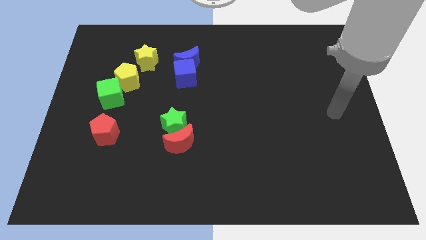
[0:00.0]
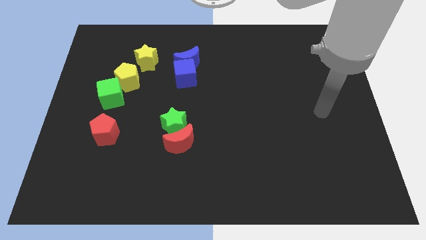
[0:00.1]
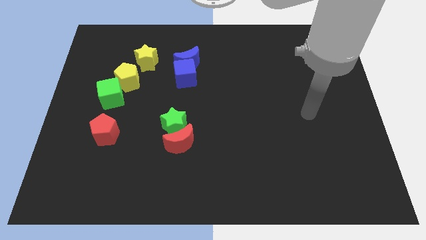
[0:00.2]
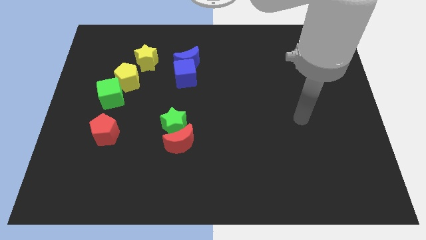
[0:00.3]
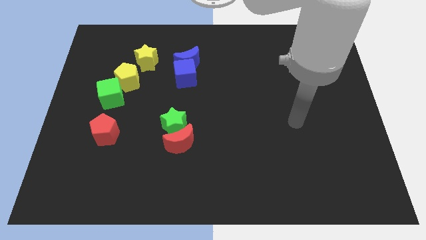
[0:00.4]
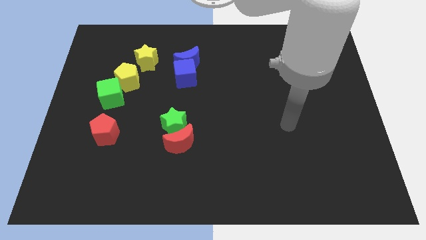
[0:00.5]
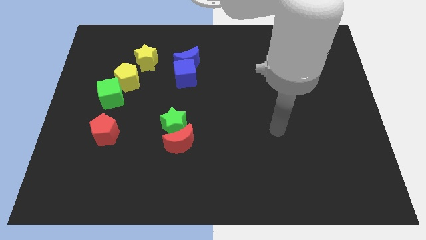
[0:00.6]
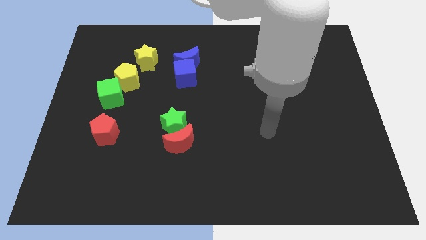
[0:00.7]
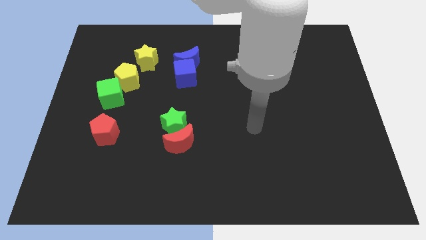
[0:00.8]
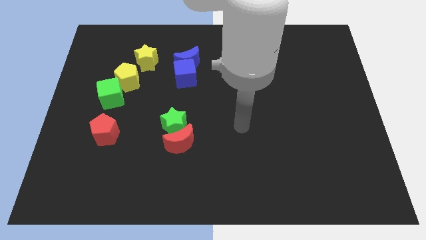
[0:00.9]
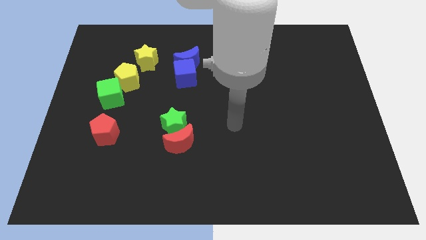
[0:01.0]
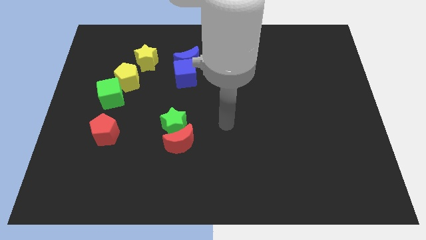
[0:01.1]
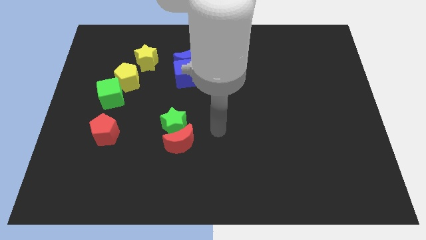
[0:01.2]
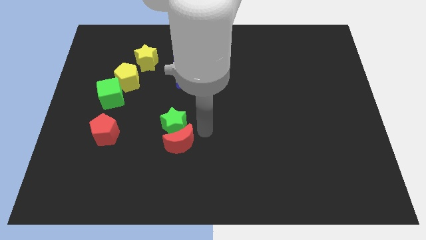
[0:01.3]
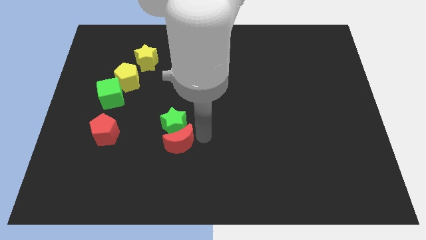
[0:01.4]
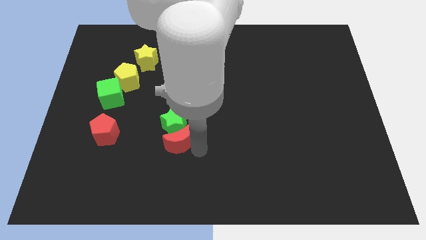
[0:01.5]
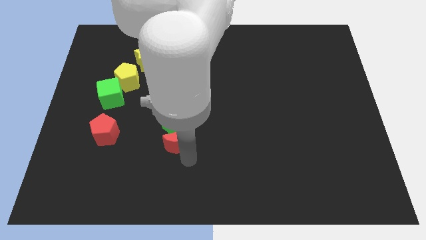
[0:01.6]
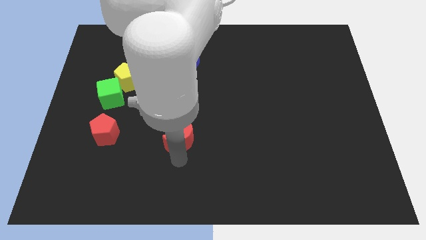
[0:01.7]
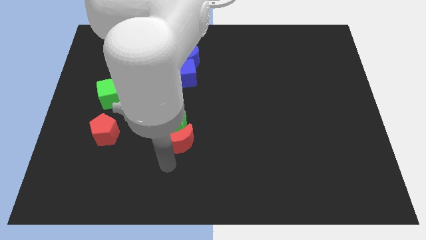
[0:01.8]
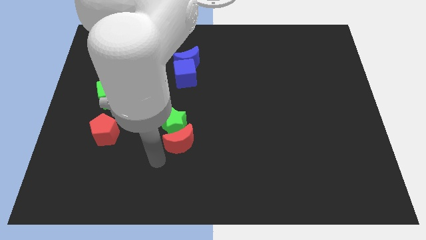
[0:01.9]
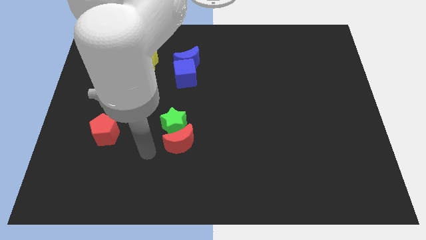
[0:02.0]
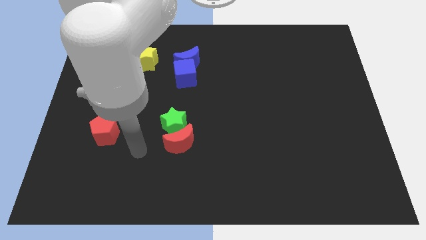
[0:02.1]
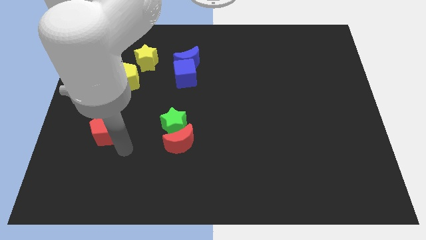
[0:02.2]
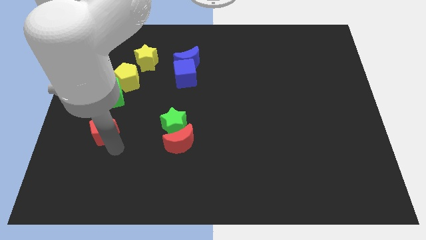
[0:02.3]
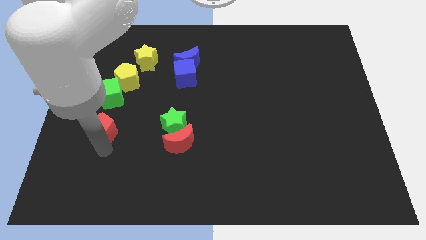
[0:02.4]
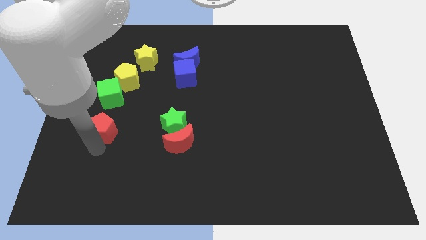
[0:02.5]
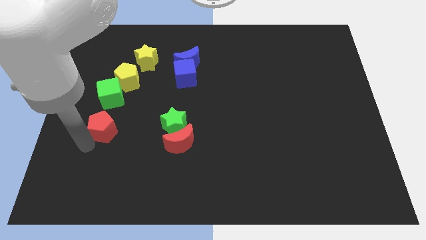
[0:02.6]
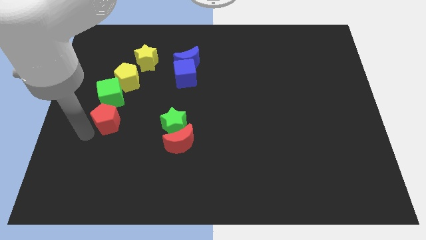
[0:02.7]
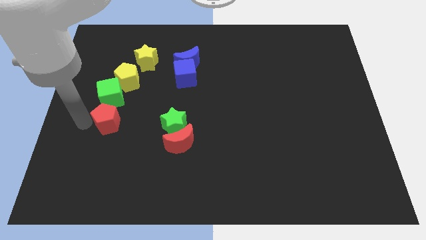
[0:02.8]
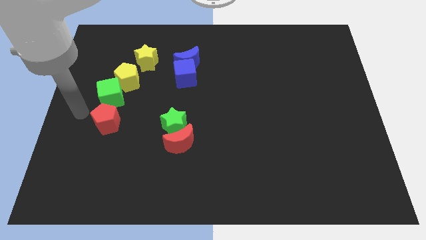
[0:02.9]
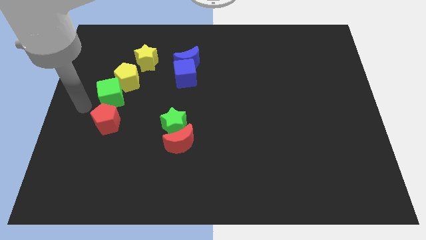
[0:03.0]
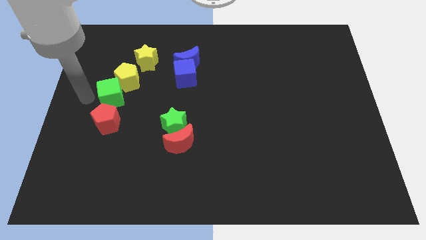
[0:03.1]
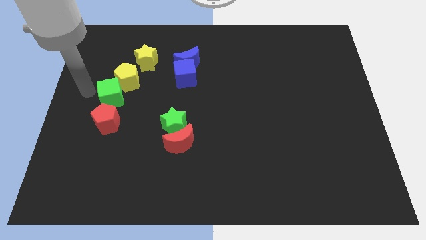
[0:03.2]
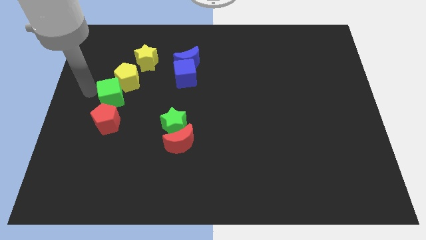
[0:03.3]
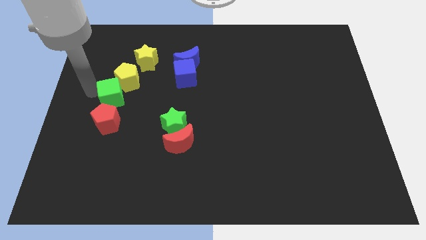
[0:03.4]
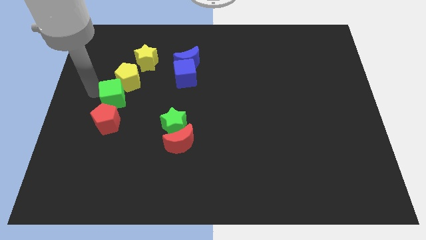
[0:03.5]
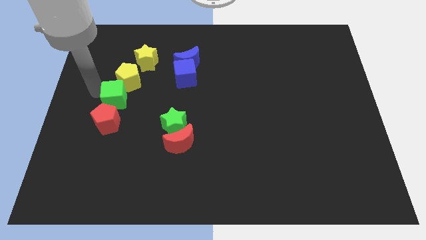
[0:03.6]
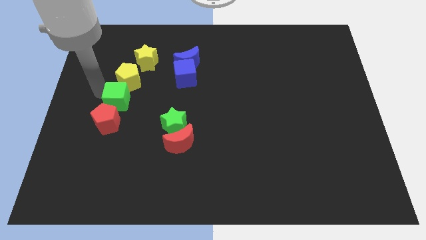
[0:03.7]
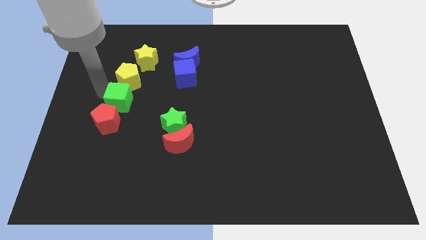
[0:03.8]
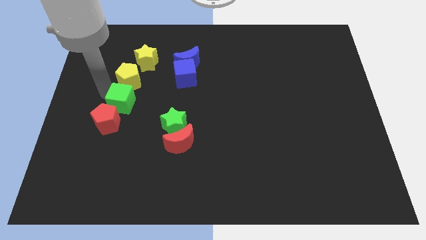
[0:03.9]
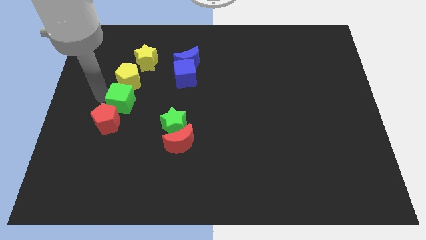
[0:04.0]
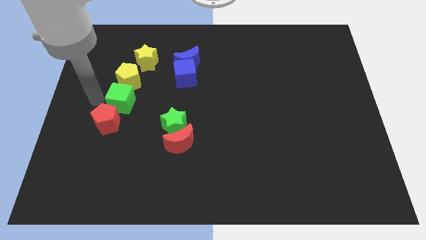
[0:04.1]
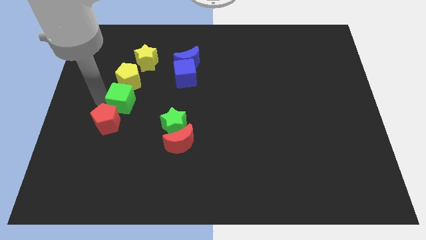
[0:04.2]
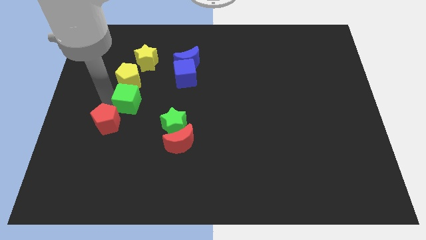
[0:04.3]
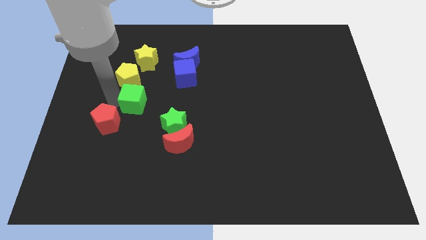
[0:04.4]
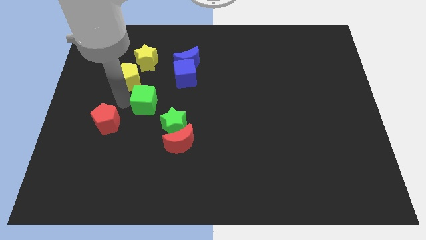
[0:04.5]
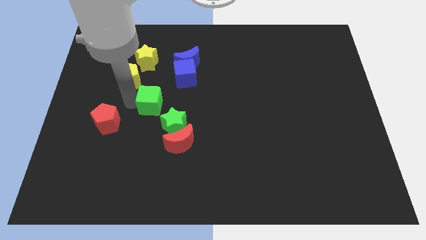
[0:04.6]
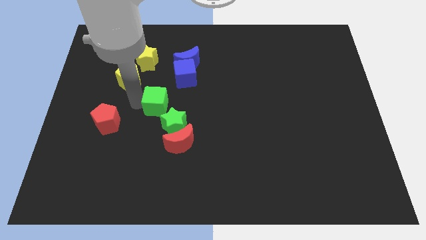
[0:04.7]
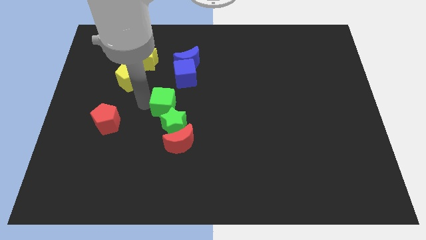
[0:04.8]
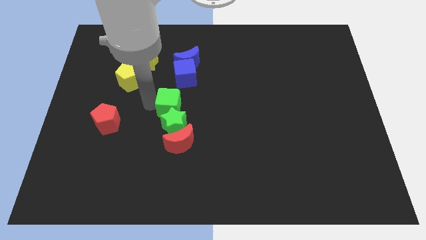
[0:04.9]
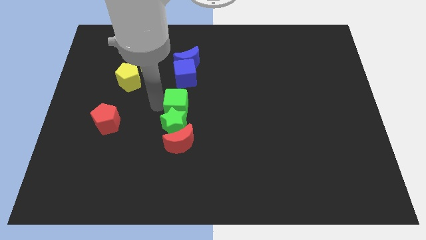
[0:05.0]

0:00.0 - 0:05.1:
slide the green cube to the top right of the green star

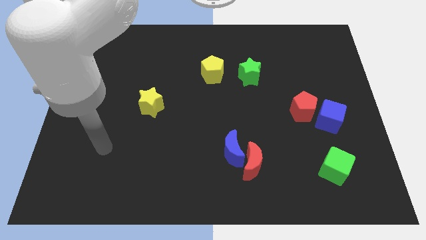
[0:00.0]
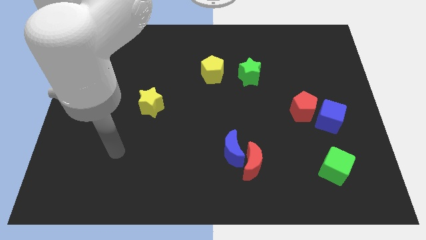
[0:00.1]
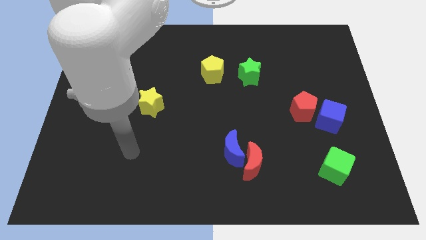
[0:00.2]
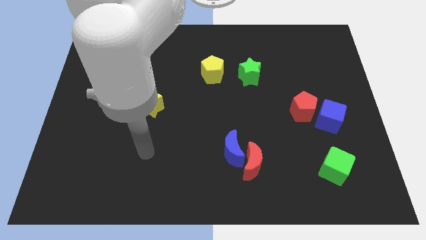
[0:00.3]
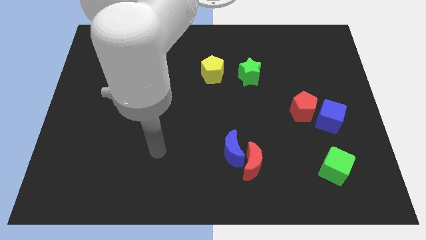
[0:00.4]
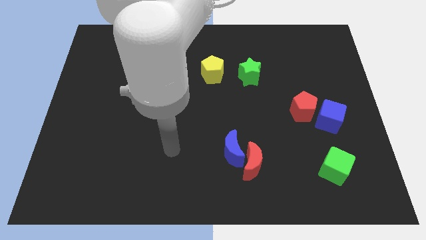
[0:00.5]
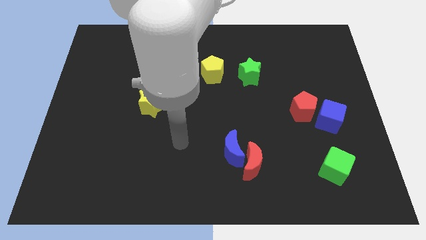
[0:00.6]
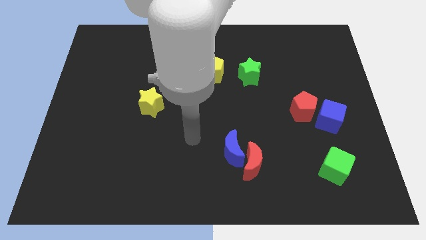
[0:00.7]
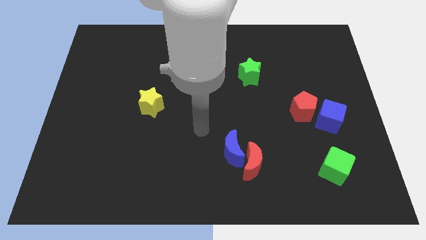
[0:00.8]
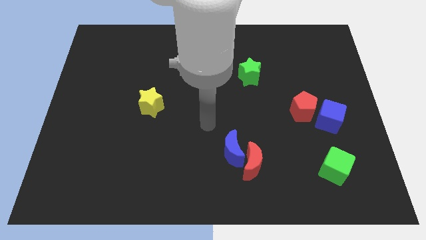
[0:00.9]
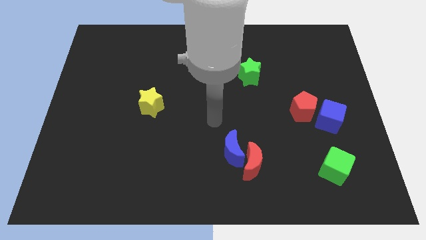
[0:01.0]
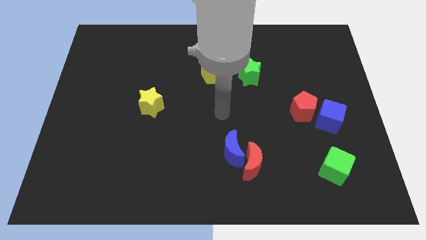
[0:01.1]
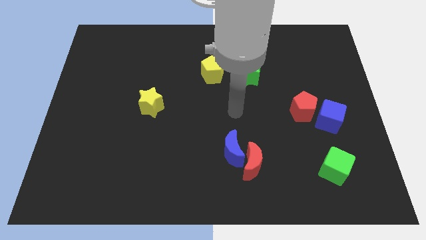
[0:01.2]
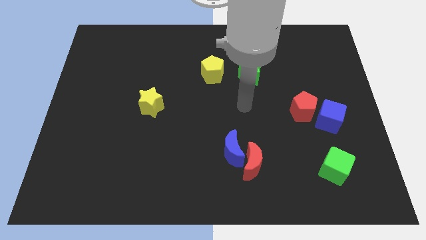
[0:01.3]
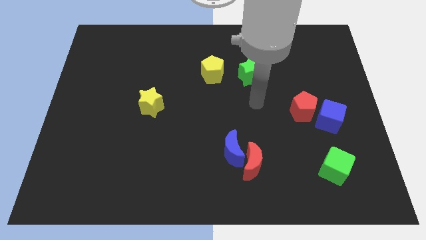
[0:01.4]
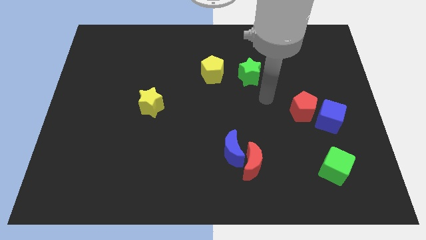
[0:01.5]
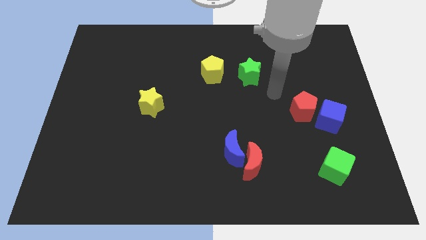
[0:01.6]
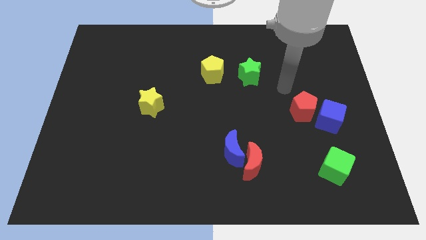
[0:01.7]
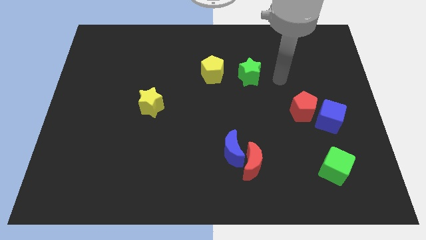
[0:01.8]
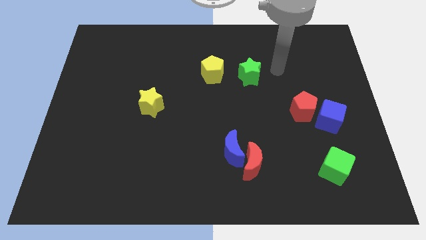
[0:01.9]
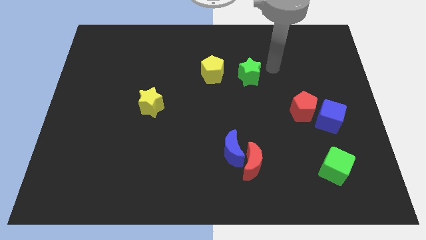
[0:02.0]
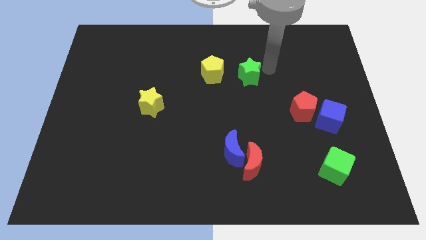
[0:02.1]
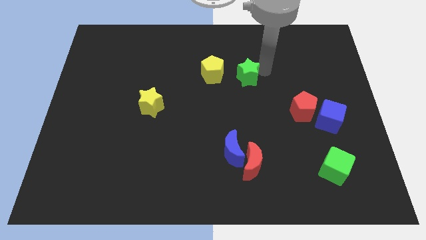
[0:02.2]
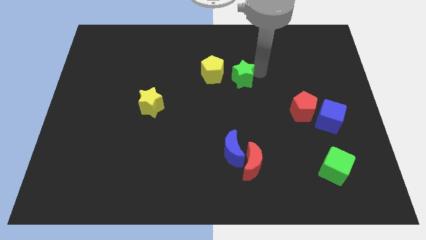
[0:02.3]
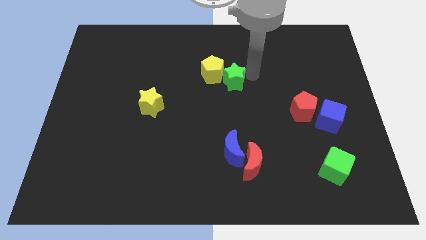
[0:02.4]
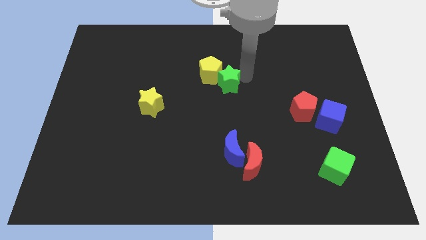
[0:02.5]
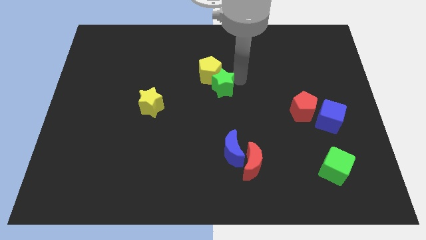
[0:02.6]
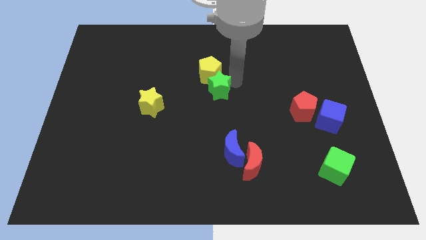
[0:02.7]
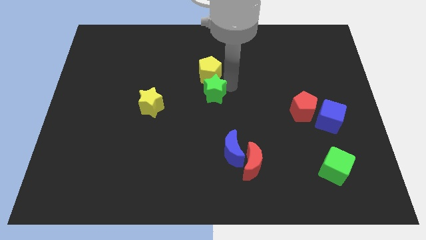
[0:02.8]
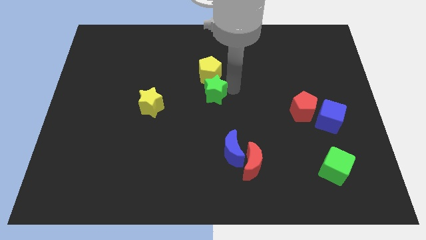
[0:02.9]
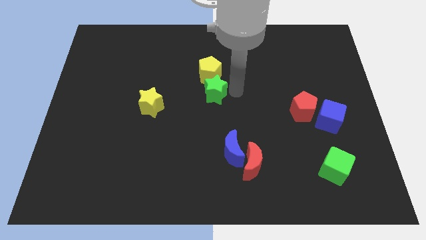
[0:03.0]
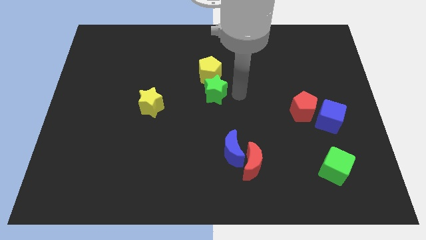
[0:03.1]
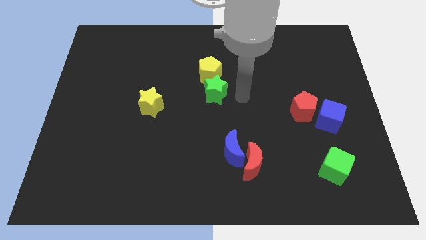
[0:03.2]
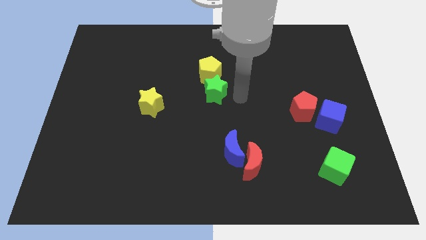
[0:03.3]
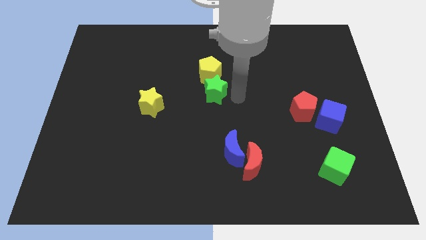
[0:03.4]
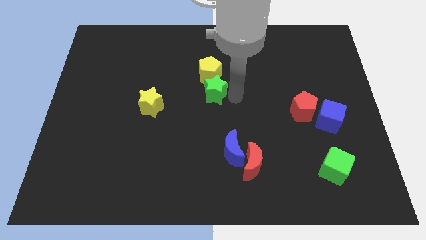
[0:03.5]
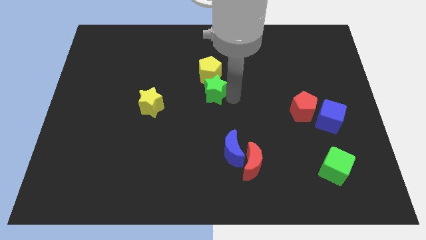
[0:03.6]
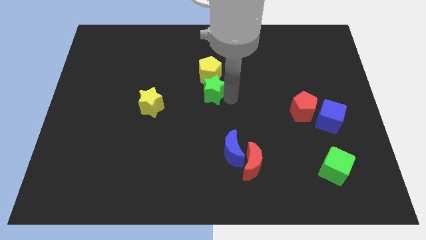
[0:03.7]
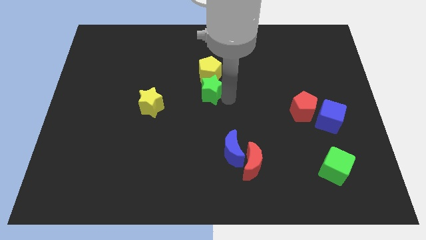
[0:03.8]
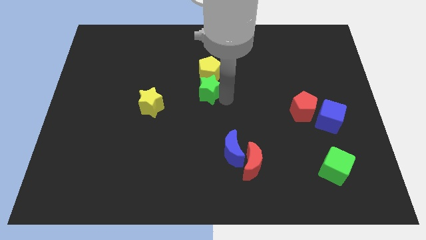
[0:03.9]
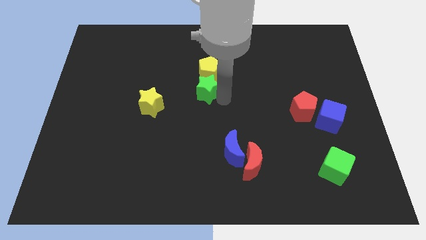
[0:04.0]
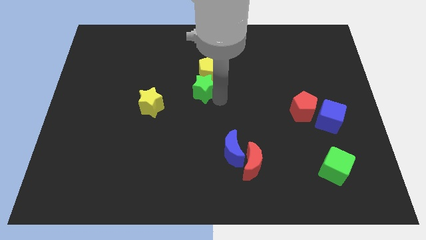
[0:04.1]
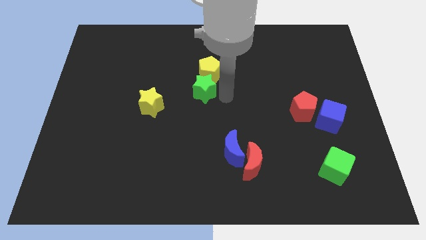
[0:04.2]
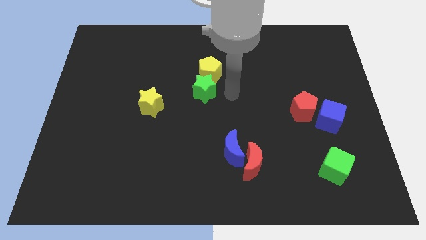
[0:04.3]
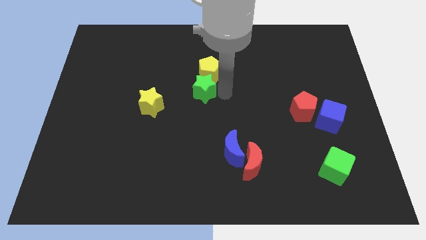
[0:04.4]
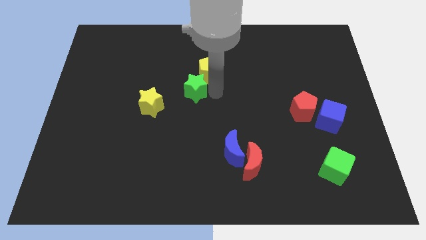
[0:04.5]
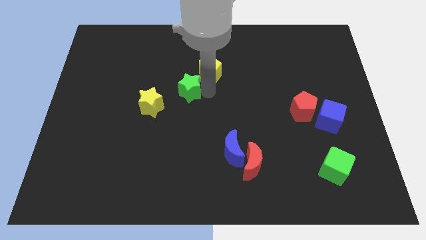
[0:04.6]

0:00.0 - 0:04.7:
slide the green star diagonally up and to the right of the yellow star
